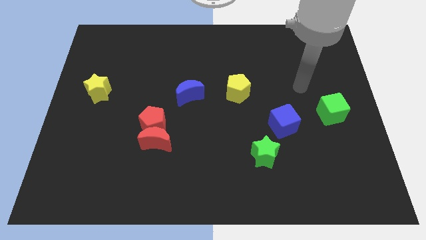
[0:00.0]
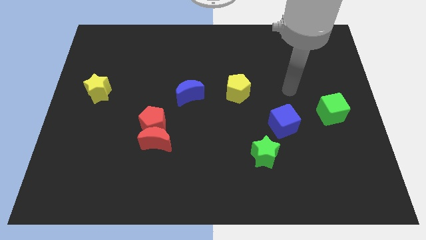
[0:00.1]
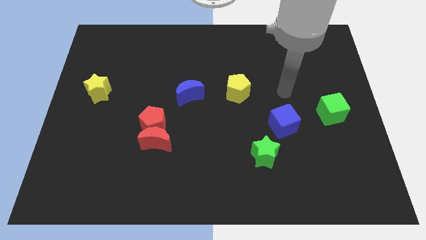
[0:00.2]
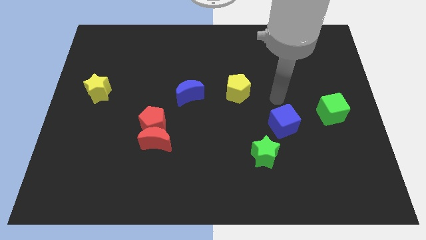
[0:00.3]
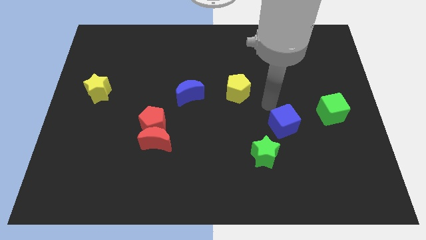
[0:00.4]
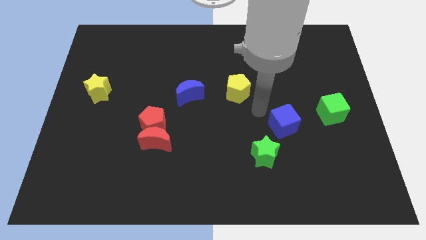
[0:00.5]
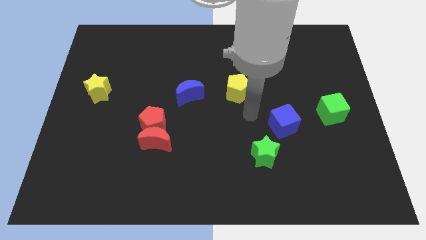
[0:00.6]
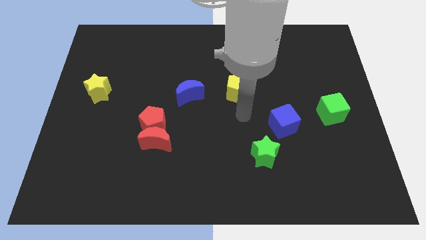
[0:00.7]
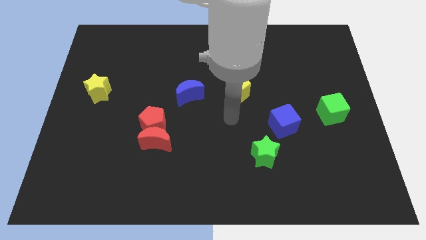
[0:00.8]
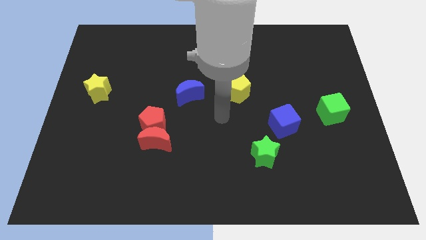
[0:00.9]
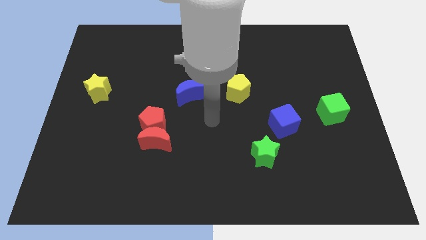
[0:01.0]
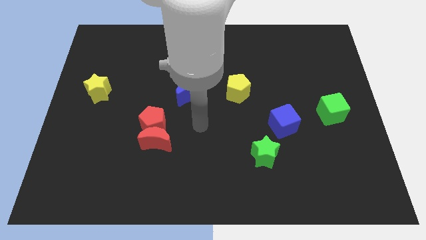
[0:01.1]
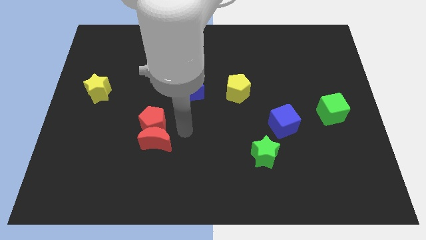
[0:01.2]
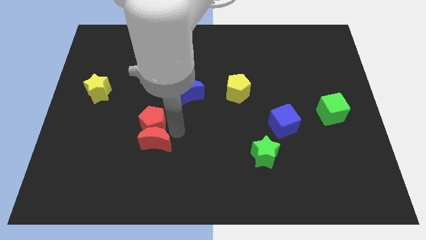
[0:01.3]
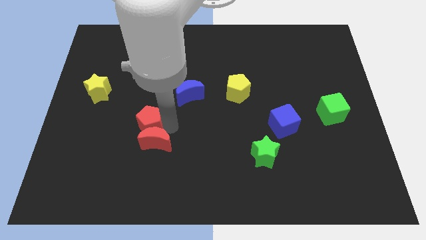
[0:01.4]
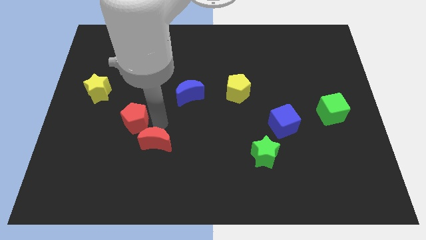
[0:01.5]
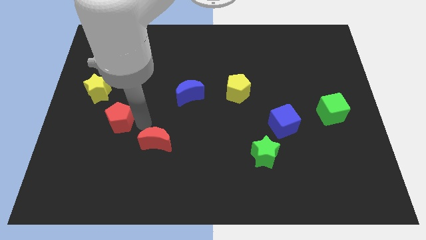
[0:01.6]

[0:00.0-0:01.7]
move the red moon away from the red pentagon

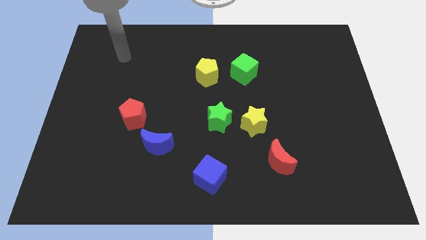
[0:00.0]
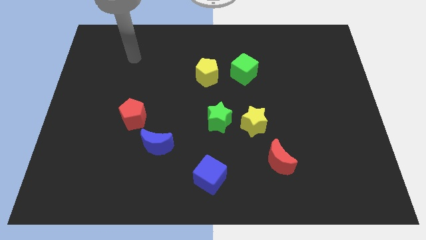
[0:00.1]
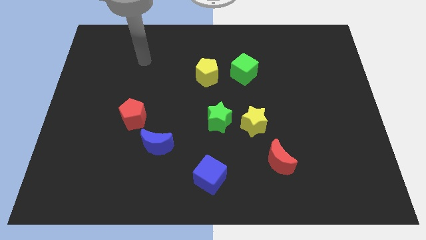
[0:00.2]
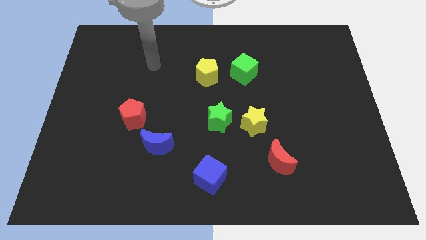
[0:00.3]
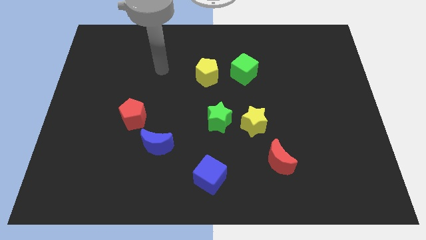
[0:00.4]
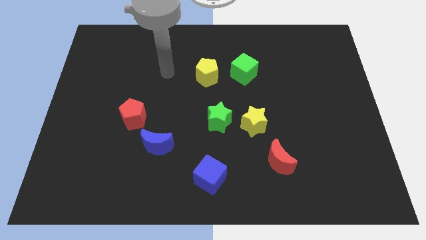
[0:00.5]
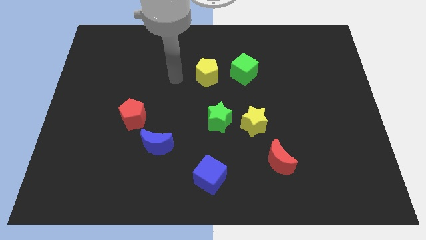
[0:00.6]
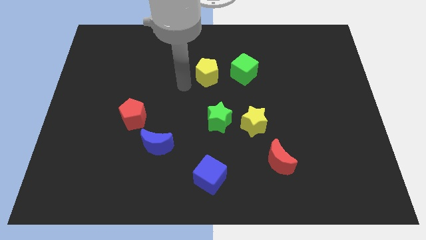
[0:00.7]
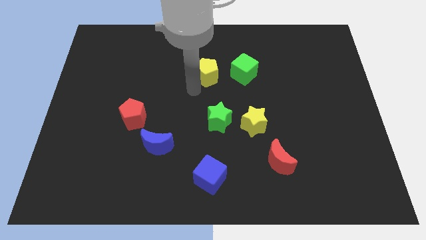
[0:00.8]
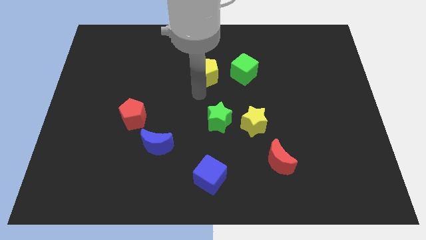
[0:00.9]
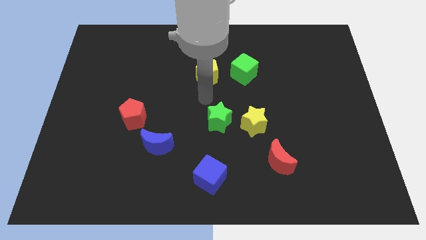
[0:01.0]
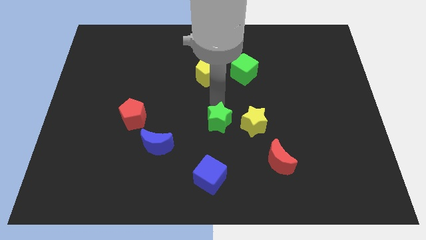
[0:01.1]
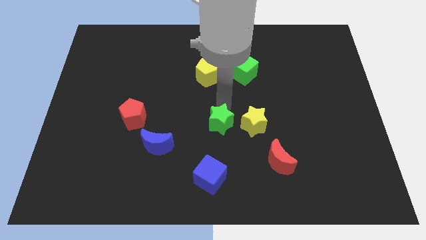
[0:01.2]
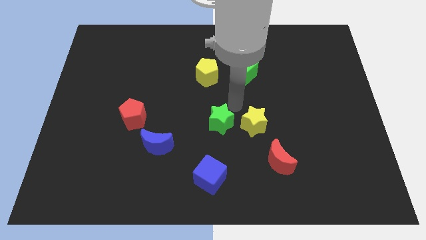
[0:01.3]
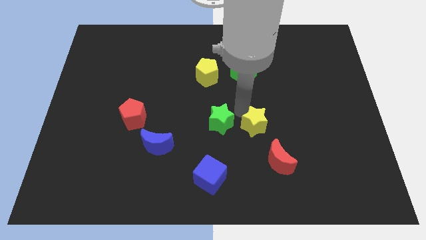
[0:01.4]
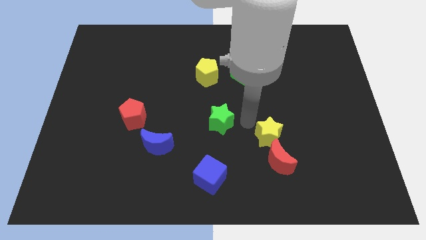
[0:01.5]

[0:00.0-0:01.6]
pull the green star apart from the yellow star

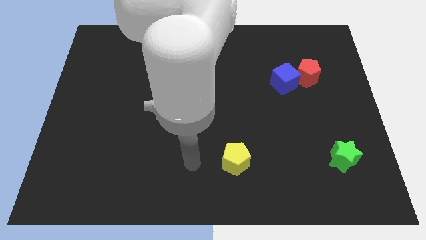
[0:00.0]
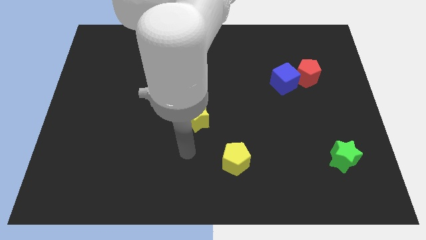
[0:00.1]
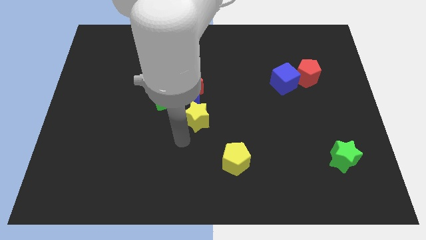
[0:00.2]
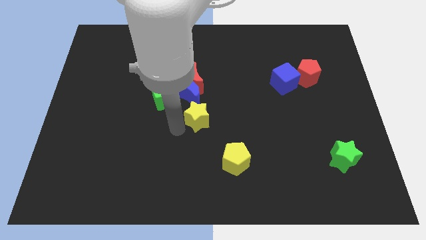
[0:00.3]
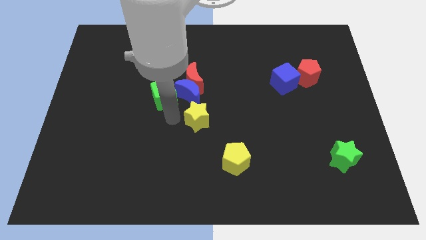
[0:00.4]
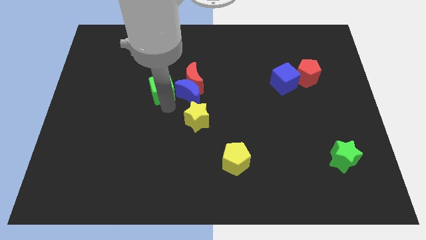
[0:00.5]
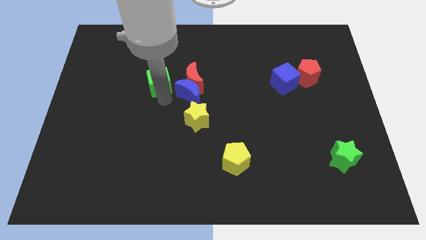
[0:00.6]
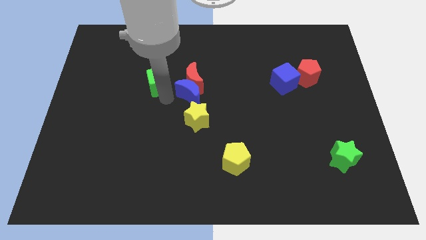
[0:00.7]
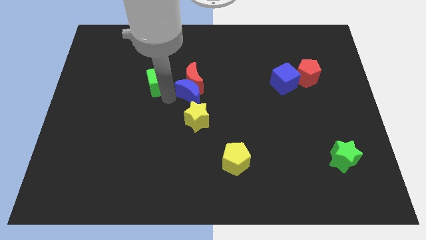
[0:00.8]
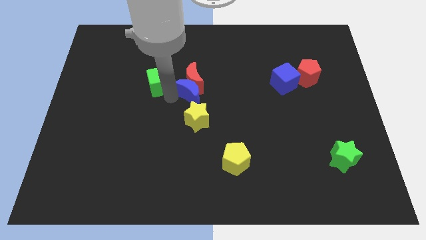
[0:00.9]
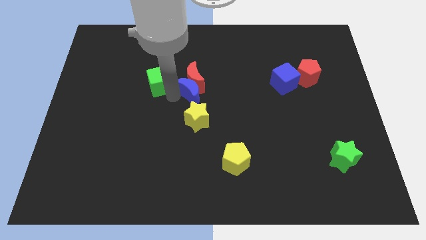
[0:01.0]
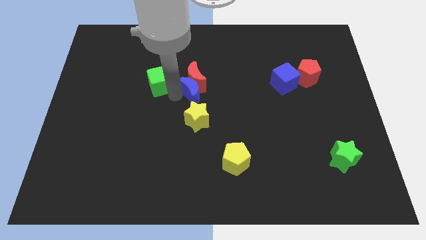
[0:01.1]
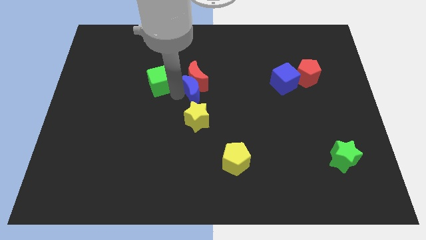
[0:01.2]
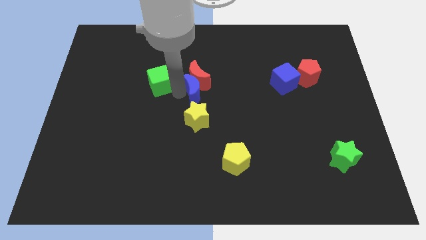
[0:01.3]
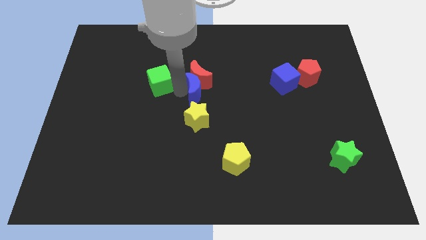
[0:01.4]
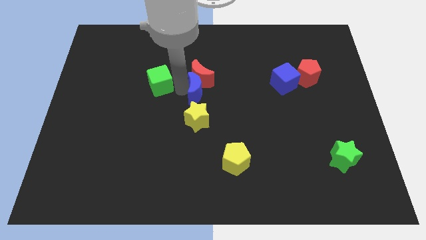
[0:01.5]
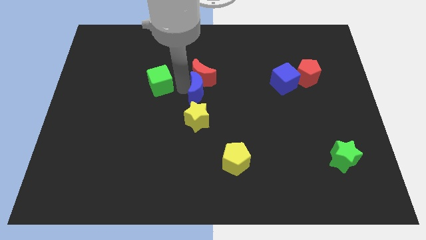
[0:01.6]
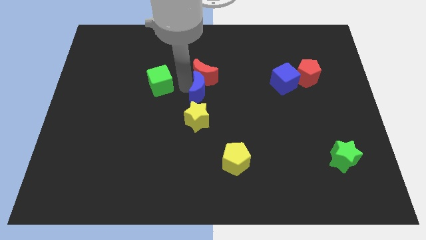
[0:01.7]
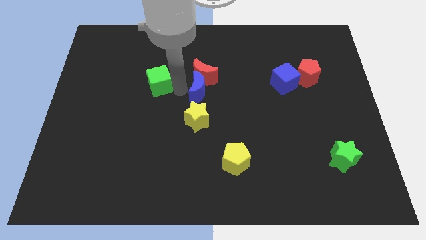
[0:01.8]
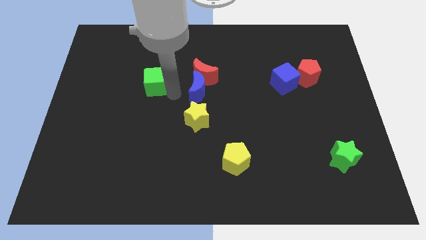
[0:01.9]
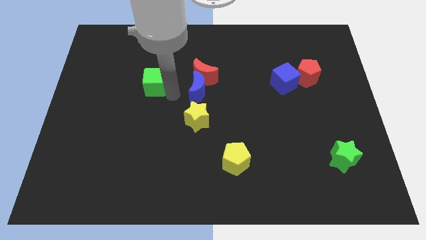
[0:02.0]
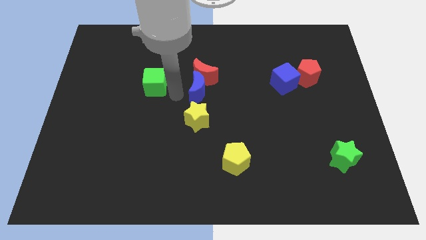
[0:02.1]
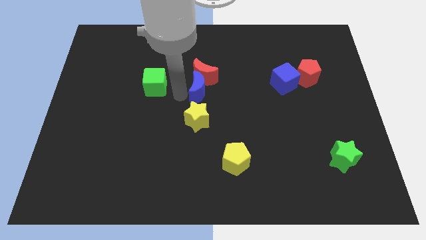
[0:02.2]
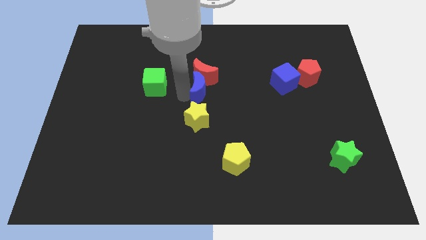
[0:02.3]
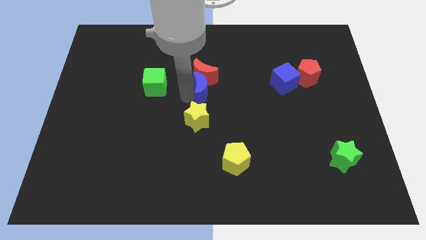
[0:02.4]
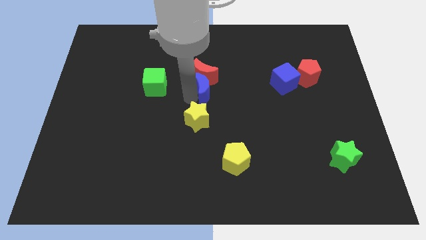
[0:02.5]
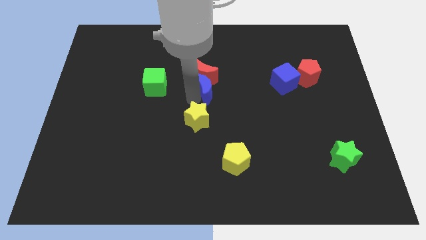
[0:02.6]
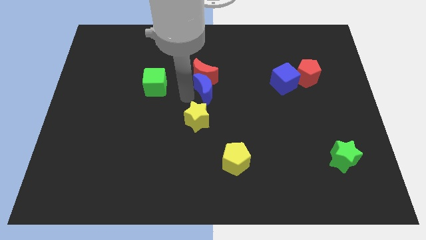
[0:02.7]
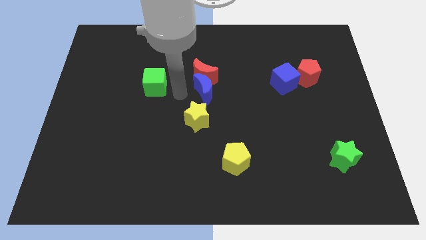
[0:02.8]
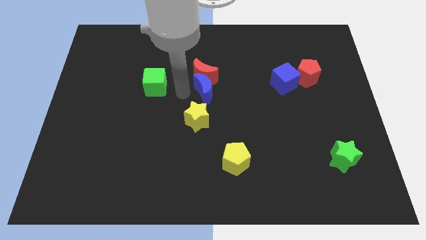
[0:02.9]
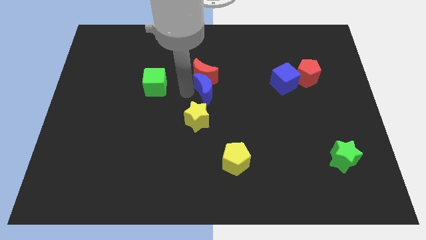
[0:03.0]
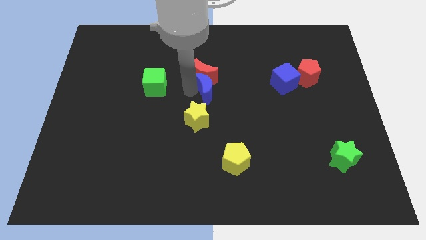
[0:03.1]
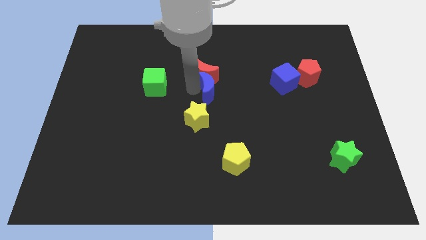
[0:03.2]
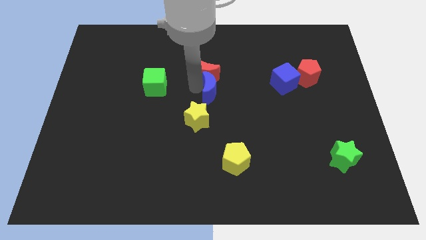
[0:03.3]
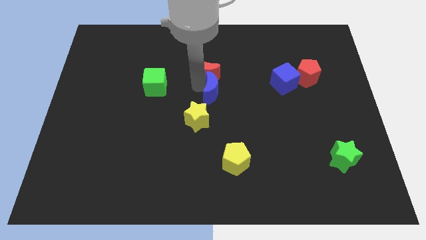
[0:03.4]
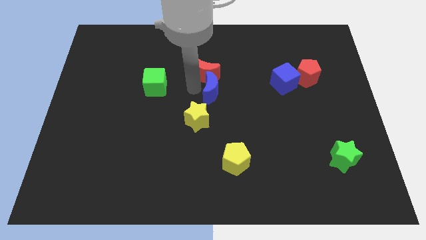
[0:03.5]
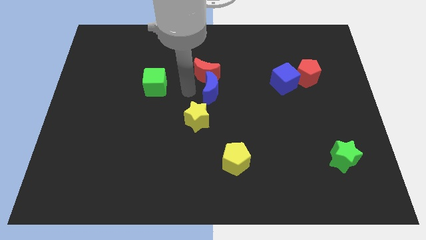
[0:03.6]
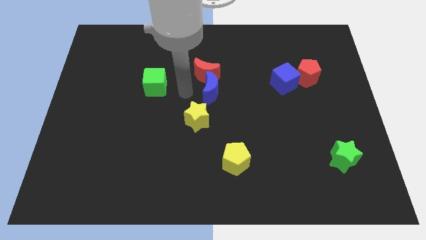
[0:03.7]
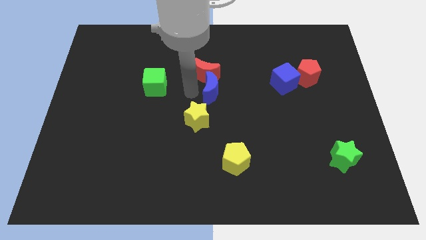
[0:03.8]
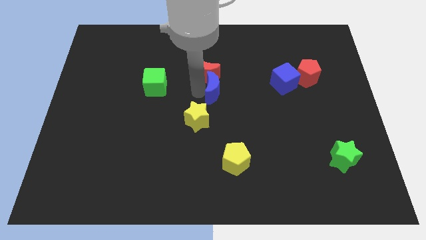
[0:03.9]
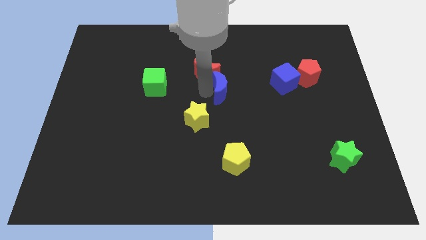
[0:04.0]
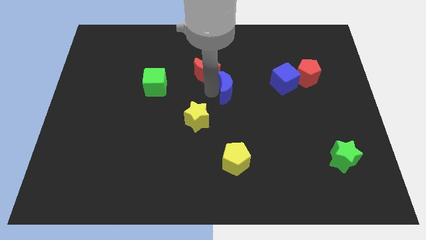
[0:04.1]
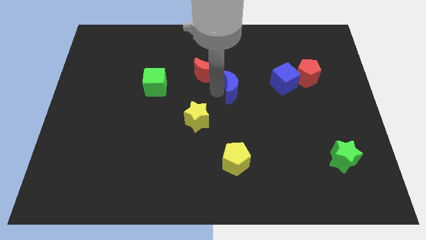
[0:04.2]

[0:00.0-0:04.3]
separate the blue moon from the group

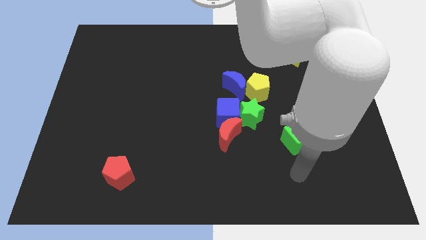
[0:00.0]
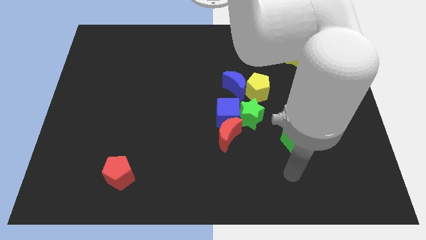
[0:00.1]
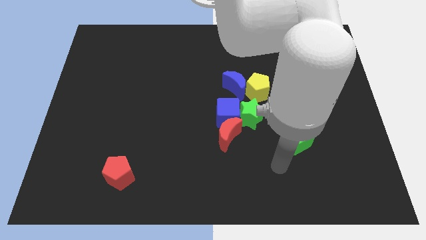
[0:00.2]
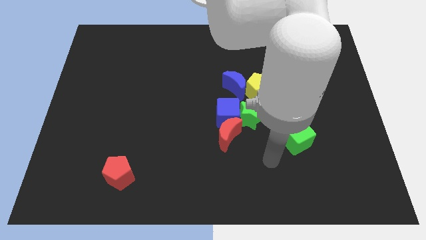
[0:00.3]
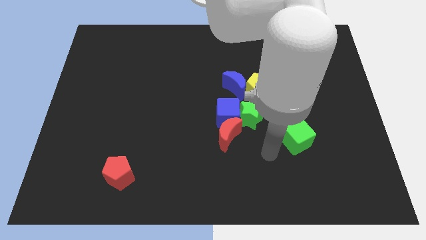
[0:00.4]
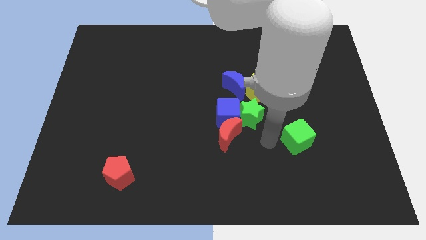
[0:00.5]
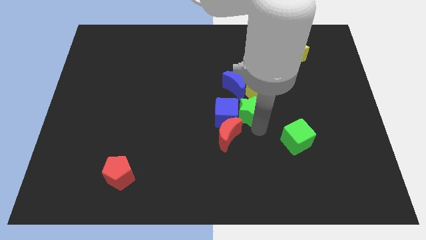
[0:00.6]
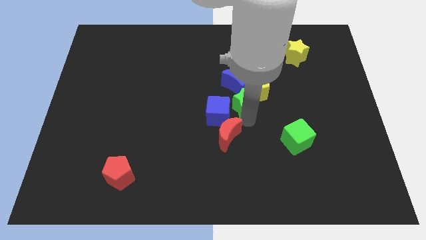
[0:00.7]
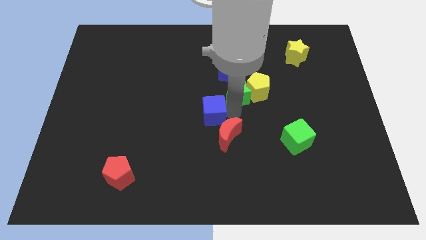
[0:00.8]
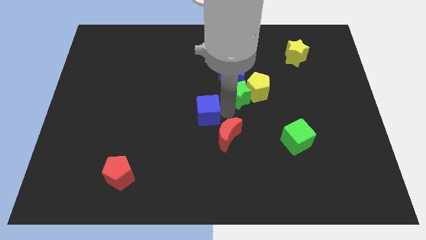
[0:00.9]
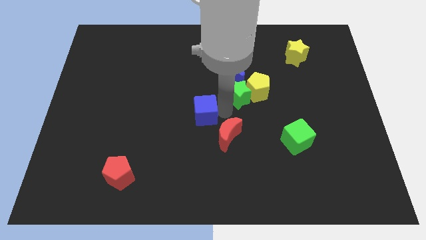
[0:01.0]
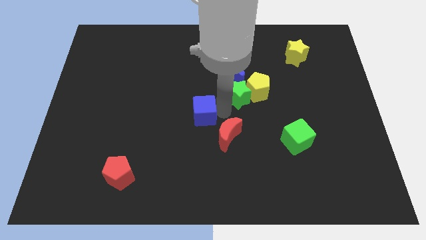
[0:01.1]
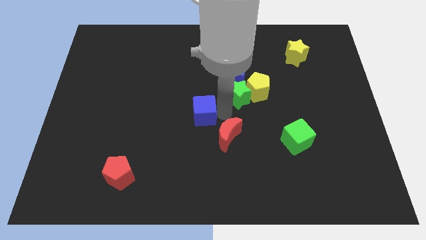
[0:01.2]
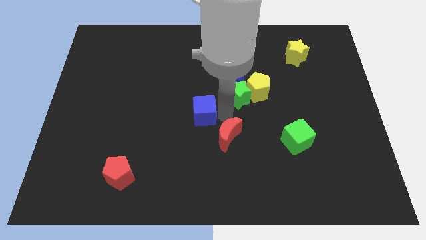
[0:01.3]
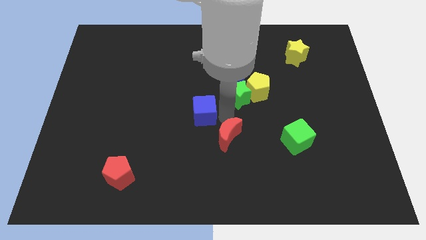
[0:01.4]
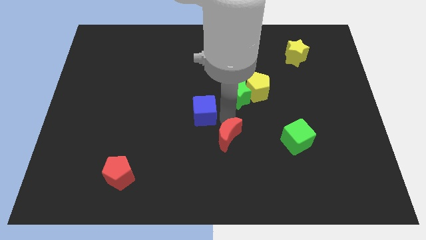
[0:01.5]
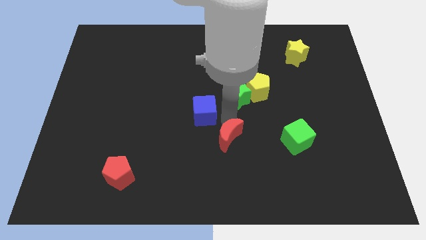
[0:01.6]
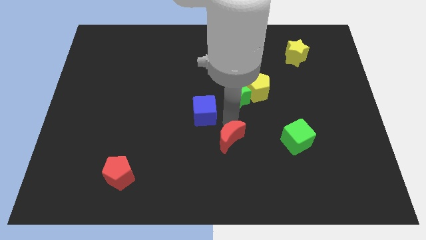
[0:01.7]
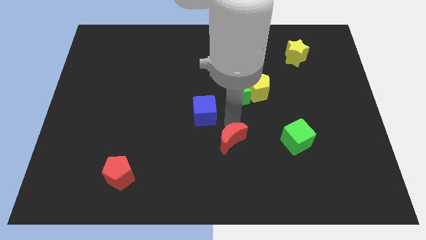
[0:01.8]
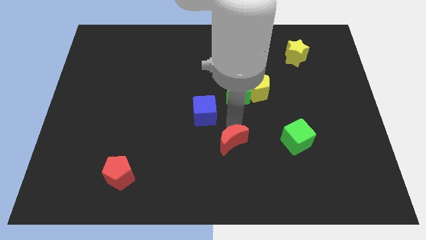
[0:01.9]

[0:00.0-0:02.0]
pull the red moon apart from the blue cube and green star
